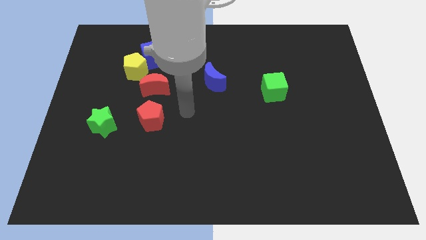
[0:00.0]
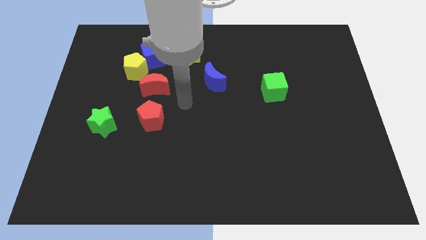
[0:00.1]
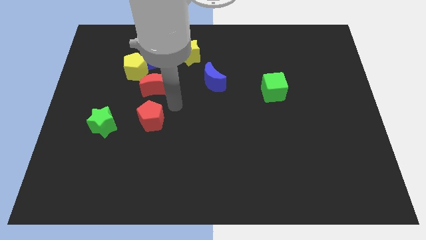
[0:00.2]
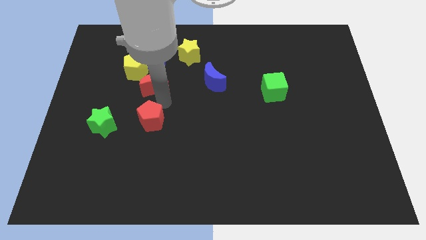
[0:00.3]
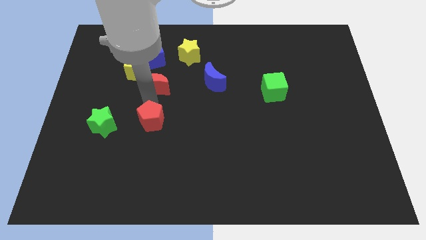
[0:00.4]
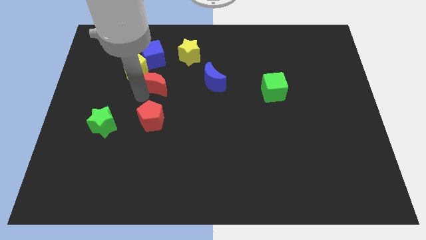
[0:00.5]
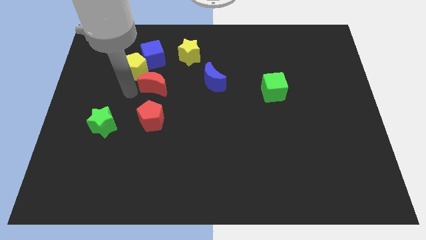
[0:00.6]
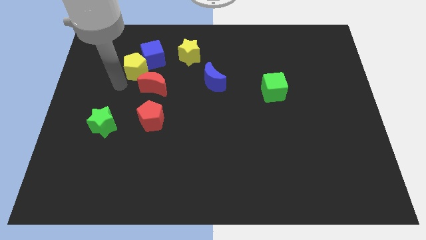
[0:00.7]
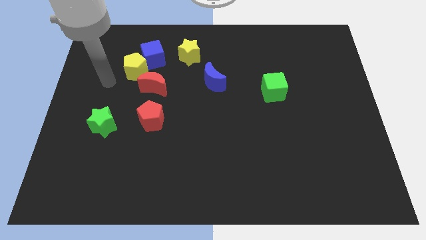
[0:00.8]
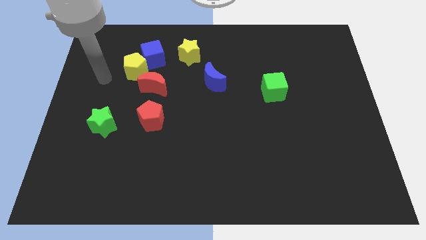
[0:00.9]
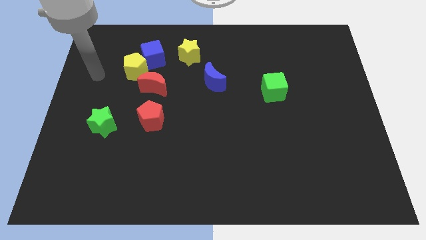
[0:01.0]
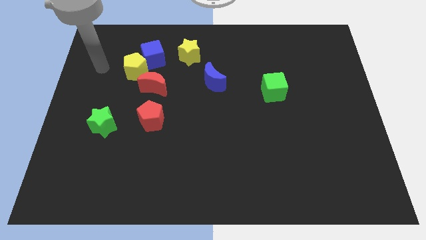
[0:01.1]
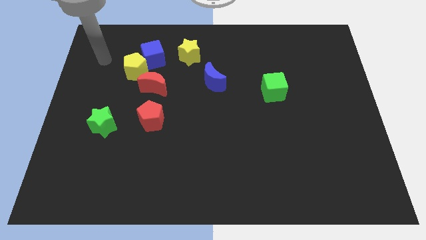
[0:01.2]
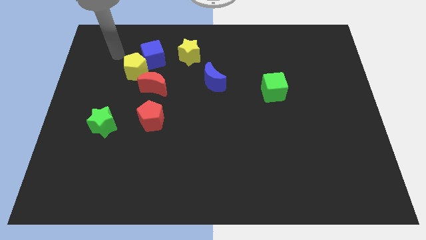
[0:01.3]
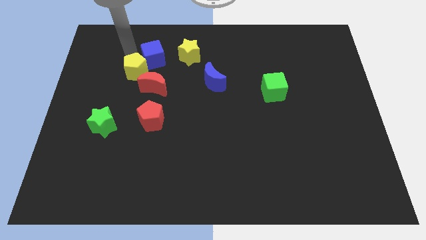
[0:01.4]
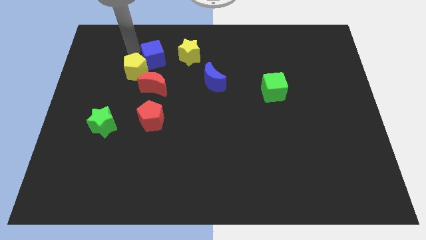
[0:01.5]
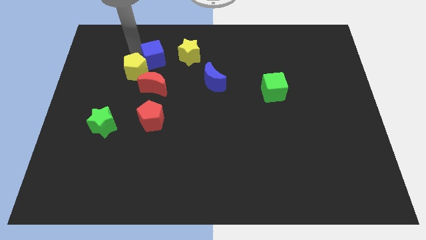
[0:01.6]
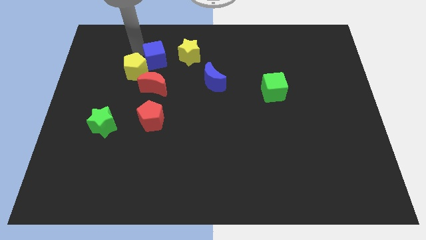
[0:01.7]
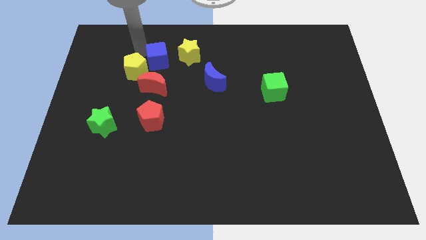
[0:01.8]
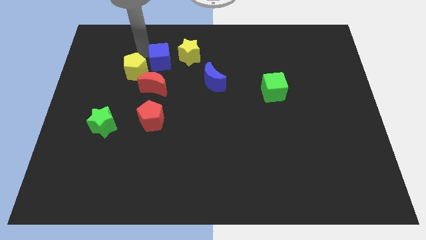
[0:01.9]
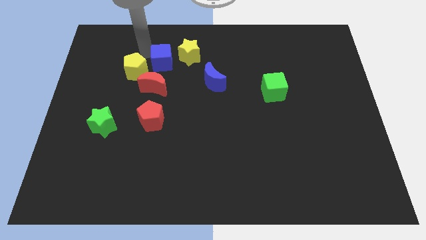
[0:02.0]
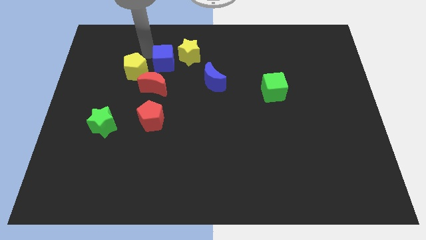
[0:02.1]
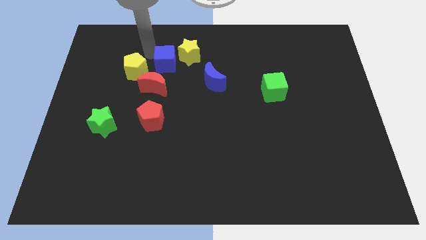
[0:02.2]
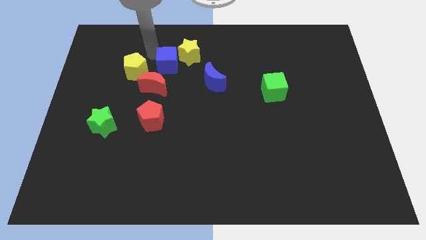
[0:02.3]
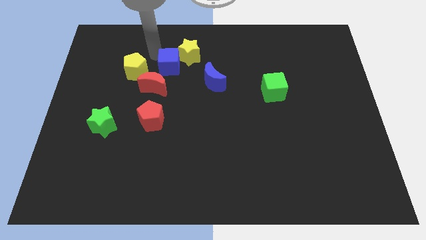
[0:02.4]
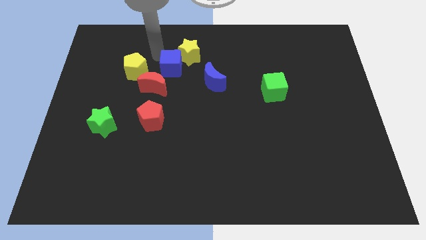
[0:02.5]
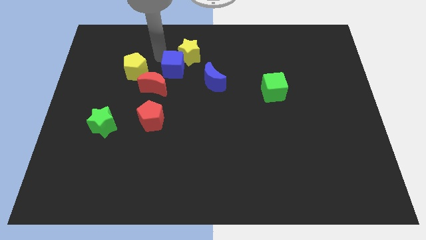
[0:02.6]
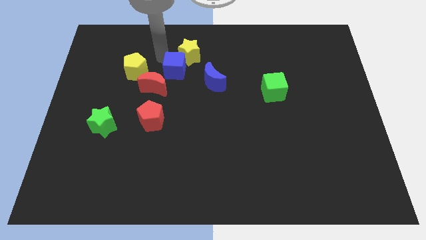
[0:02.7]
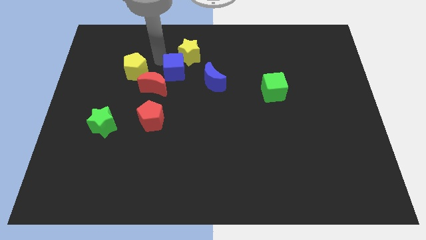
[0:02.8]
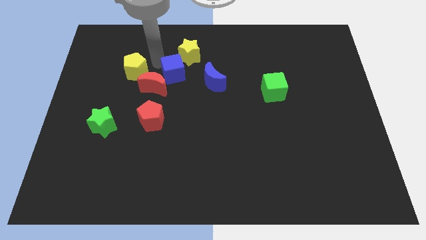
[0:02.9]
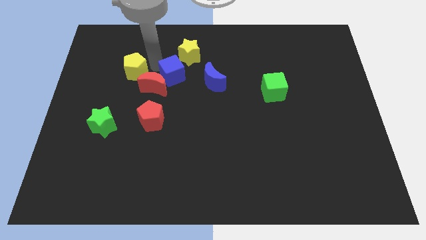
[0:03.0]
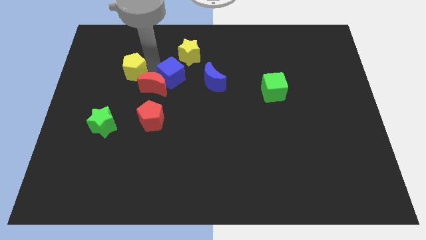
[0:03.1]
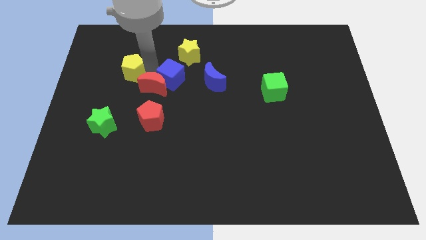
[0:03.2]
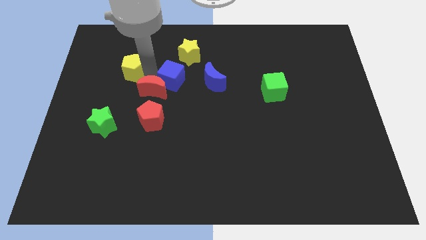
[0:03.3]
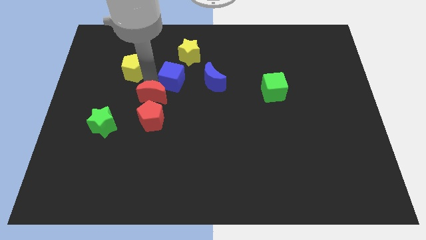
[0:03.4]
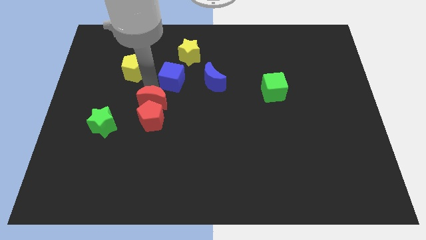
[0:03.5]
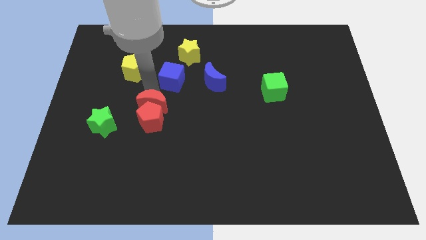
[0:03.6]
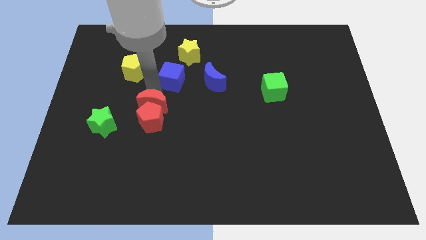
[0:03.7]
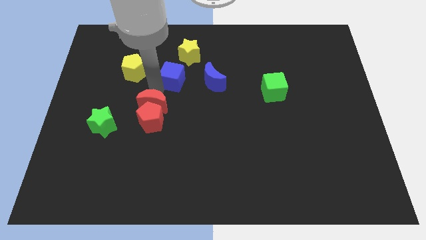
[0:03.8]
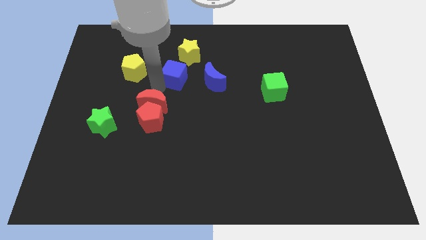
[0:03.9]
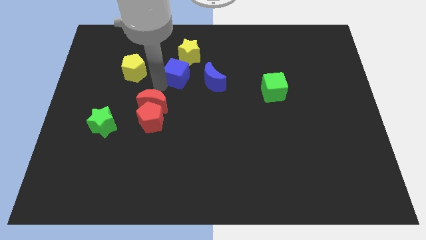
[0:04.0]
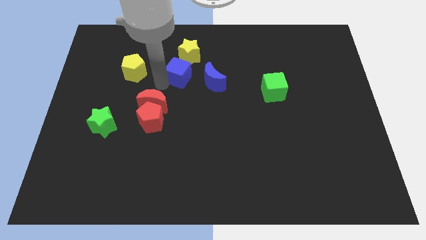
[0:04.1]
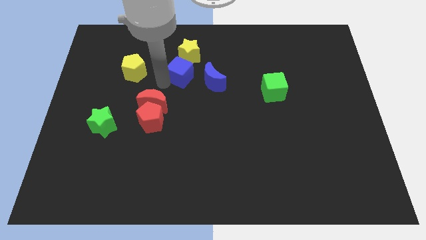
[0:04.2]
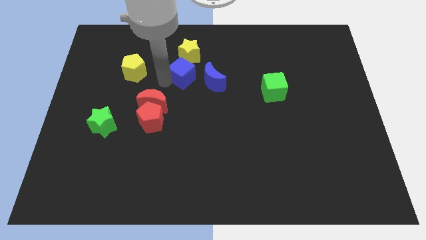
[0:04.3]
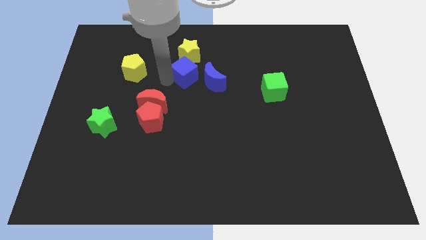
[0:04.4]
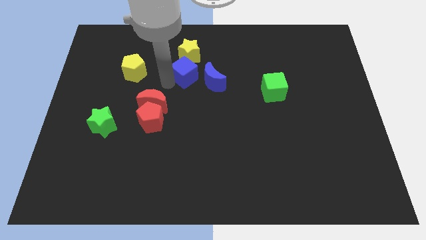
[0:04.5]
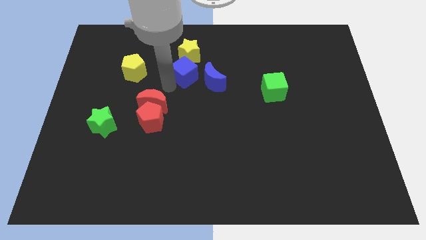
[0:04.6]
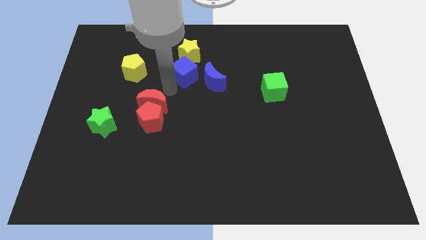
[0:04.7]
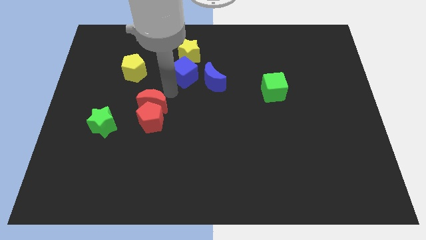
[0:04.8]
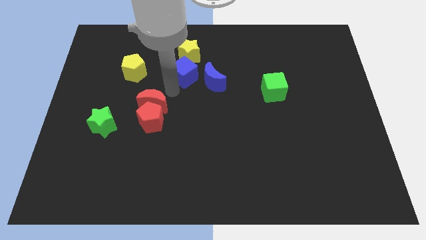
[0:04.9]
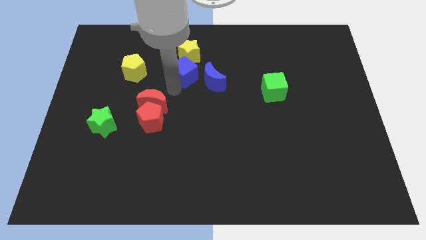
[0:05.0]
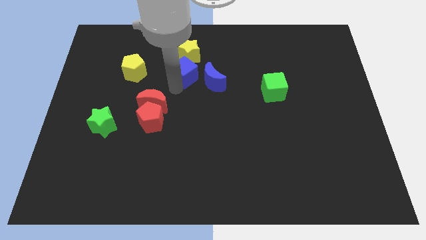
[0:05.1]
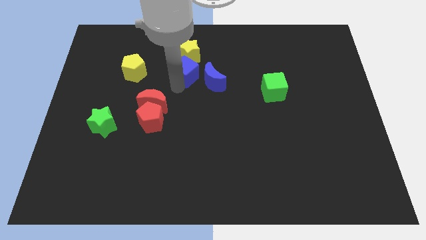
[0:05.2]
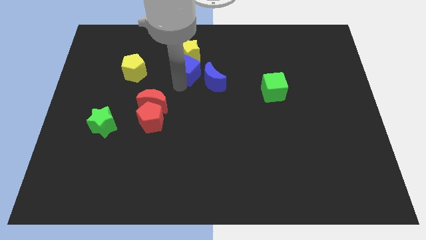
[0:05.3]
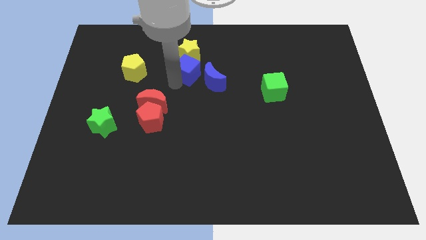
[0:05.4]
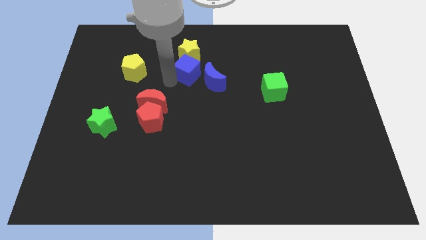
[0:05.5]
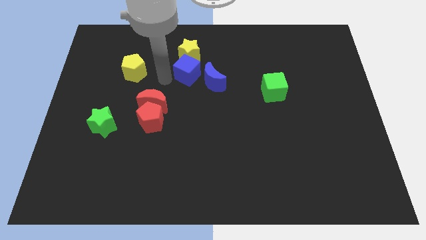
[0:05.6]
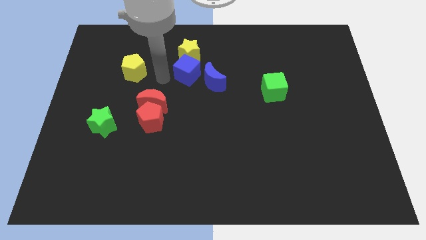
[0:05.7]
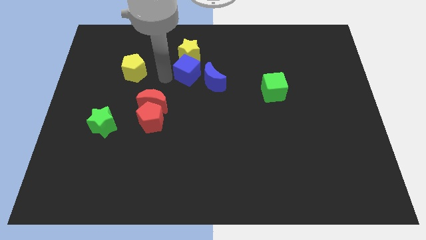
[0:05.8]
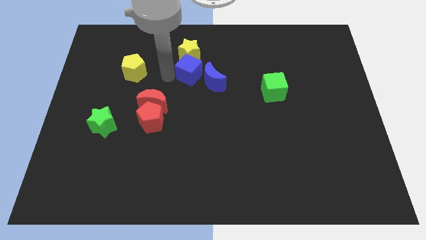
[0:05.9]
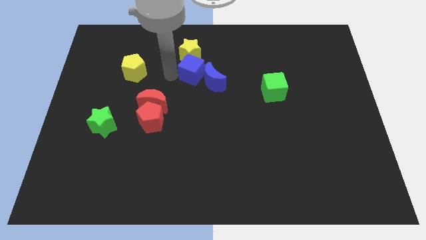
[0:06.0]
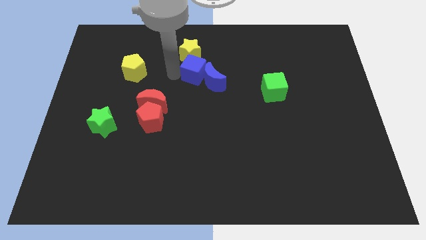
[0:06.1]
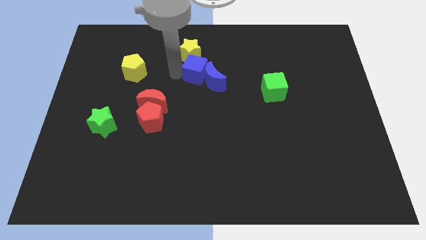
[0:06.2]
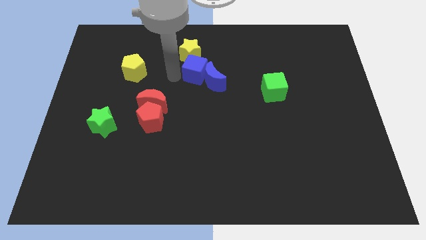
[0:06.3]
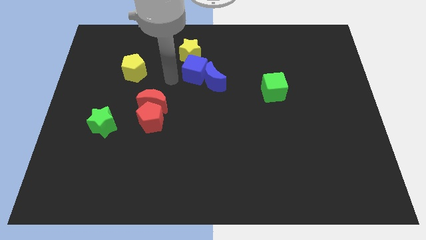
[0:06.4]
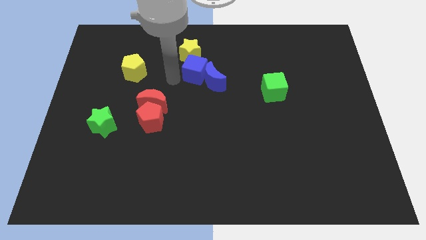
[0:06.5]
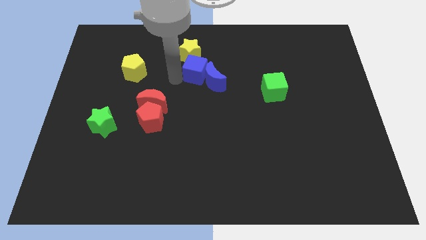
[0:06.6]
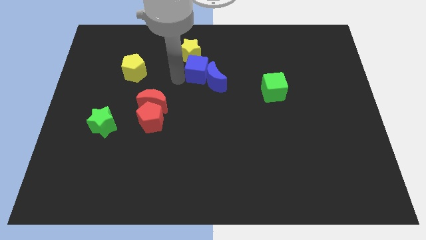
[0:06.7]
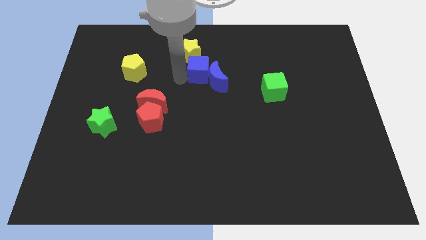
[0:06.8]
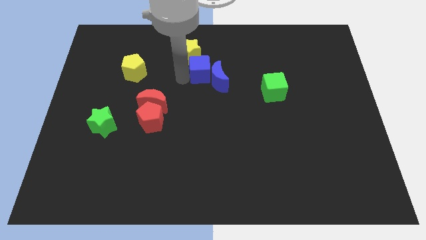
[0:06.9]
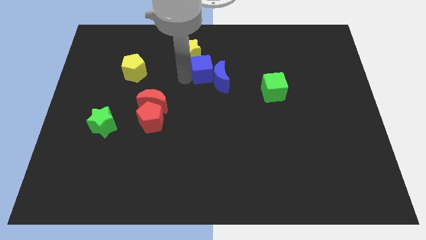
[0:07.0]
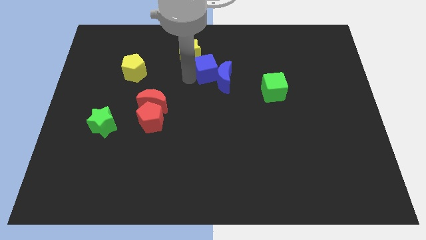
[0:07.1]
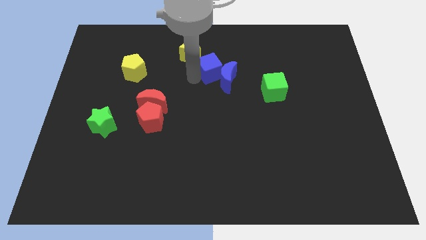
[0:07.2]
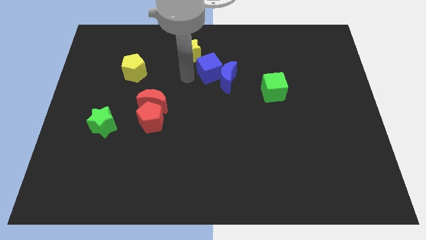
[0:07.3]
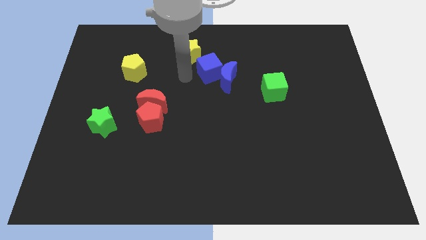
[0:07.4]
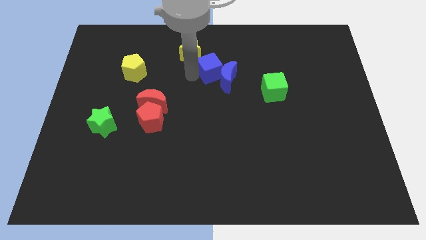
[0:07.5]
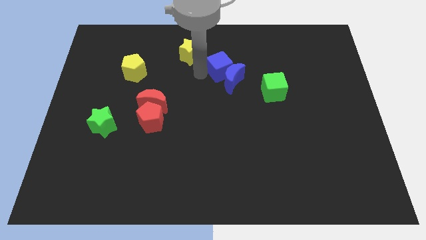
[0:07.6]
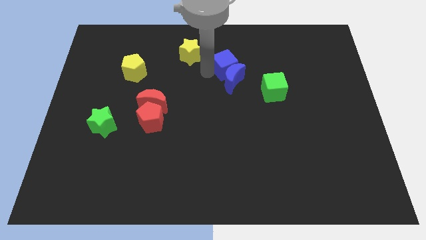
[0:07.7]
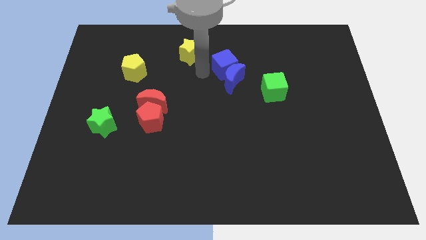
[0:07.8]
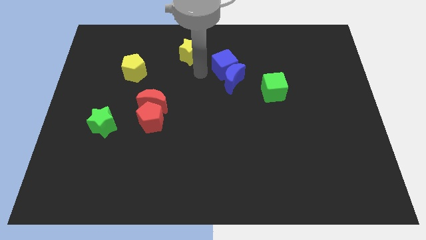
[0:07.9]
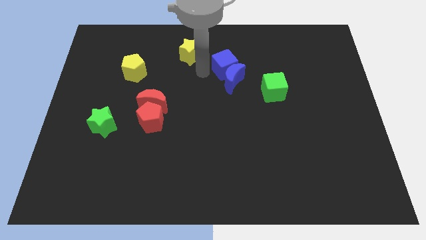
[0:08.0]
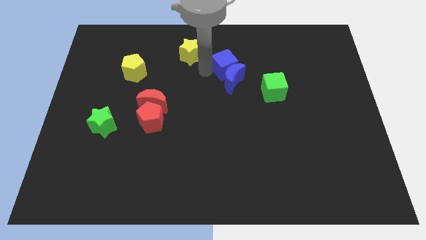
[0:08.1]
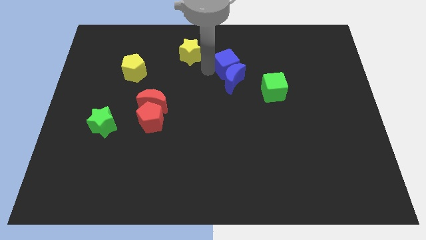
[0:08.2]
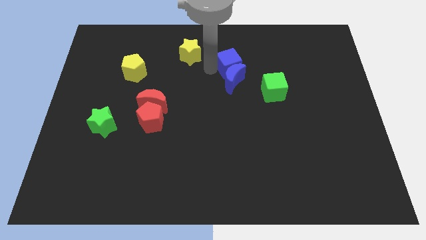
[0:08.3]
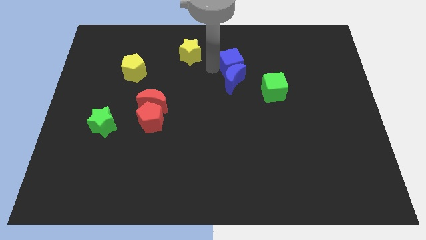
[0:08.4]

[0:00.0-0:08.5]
slide the blue cube to the right
